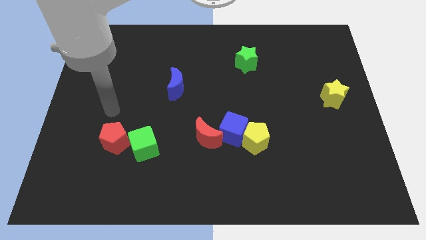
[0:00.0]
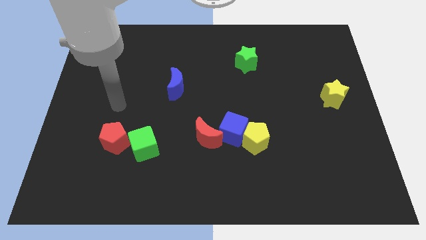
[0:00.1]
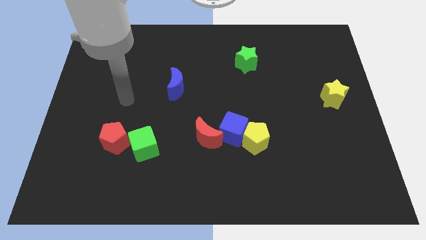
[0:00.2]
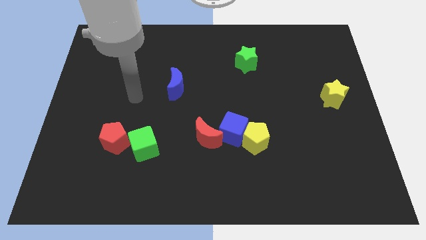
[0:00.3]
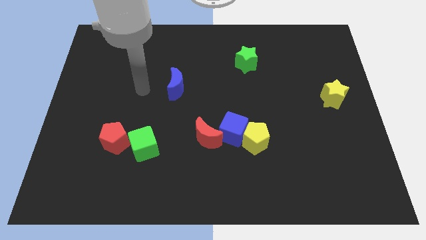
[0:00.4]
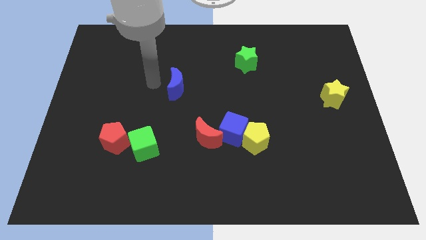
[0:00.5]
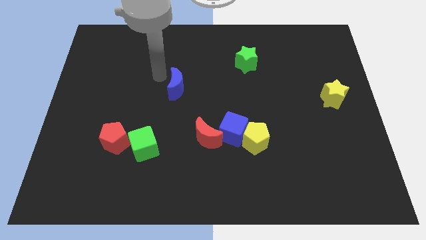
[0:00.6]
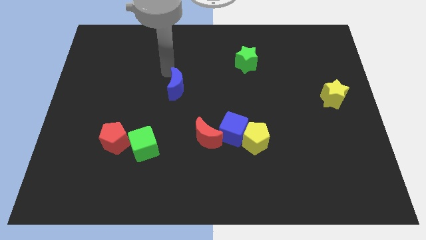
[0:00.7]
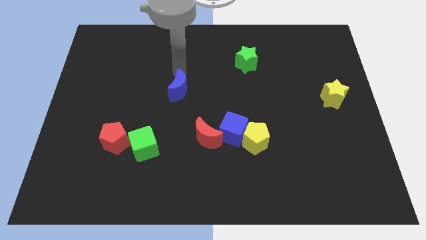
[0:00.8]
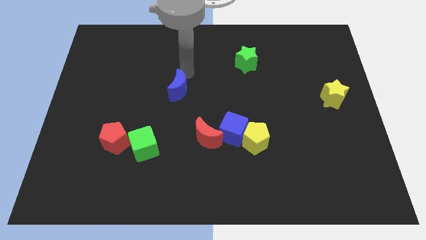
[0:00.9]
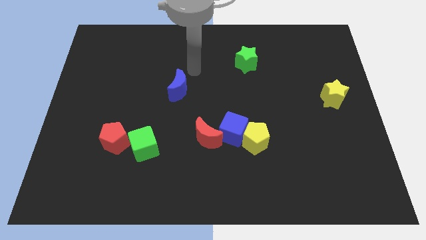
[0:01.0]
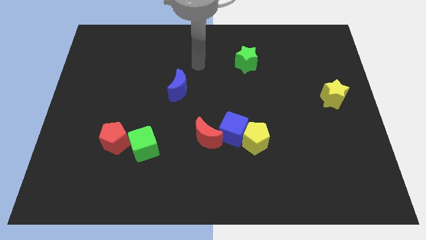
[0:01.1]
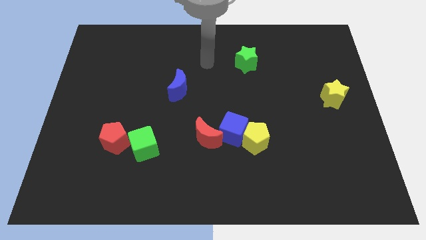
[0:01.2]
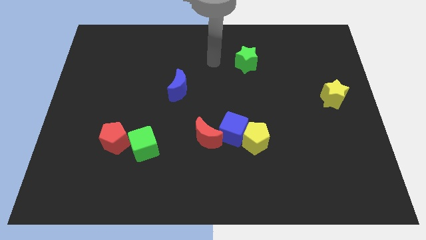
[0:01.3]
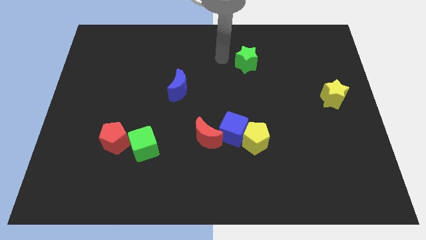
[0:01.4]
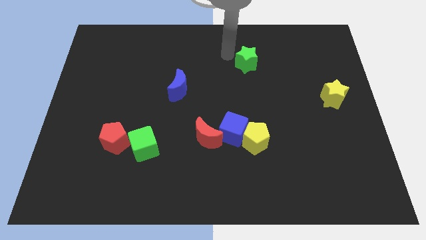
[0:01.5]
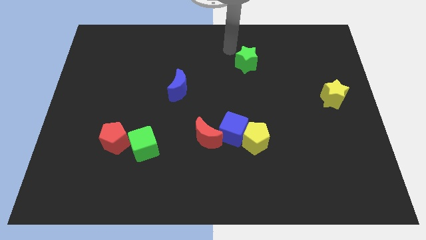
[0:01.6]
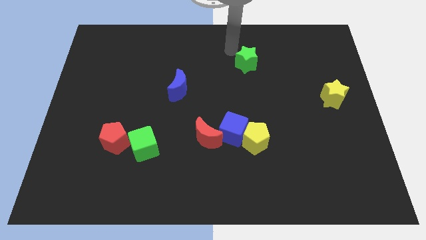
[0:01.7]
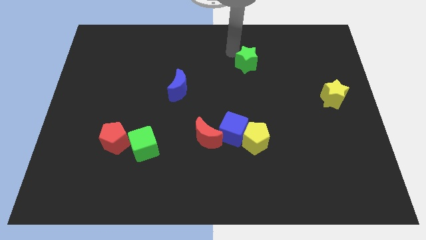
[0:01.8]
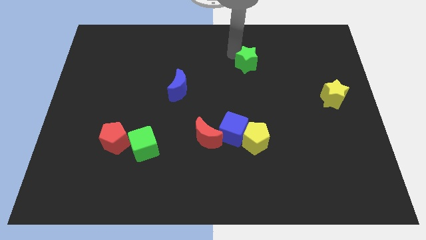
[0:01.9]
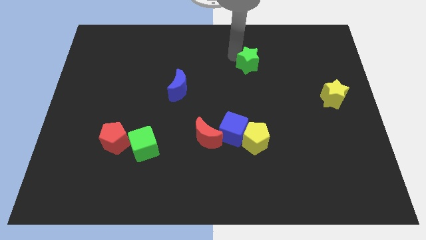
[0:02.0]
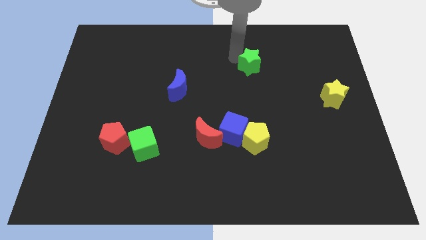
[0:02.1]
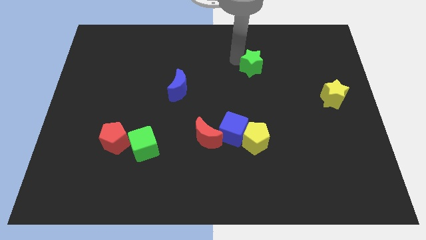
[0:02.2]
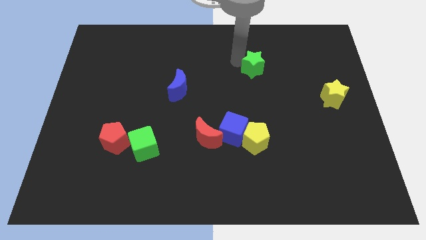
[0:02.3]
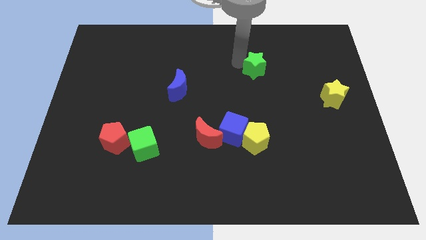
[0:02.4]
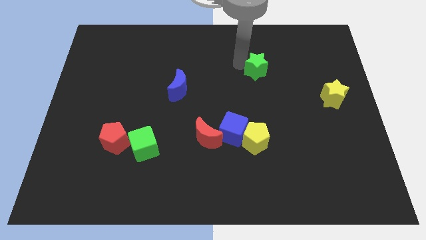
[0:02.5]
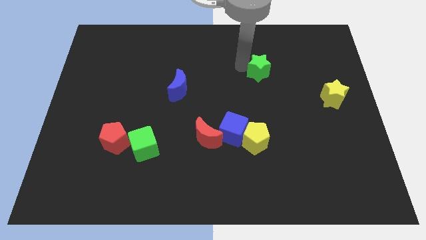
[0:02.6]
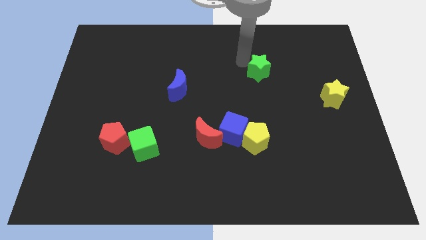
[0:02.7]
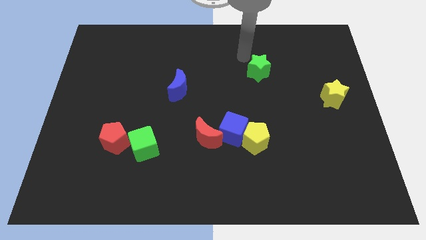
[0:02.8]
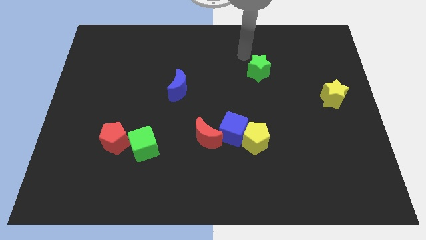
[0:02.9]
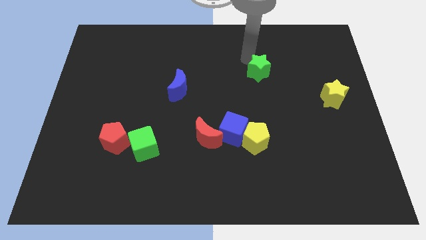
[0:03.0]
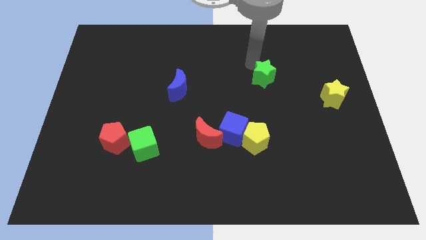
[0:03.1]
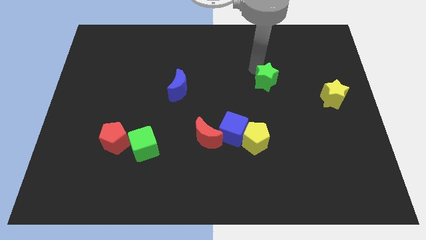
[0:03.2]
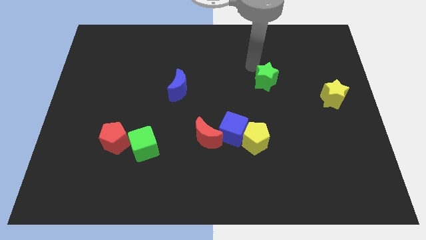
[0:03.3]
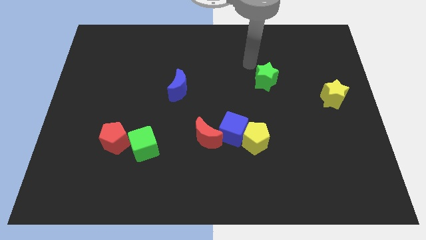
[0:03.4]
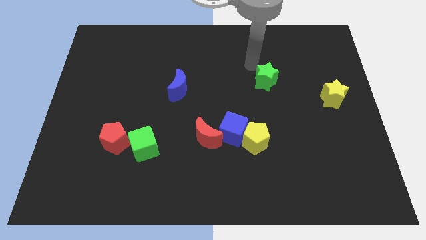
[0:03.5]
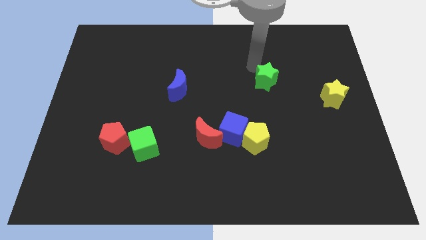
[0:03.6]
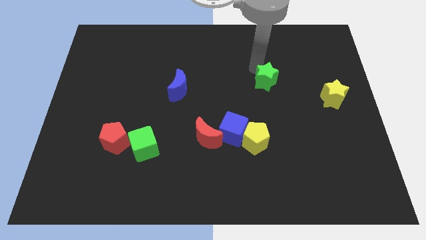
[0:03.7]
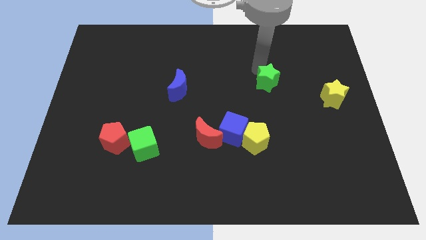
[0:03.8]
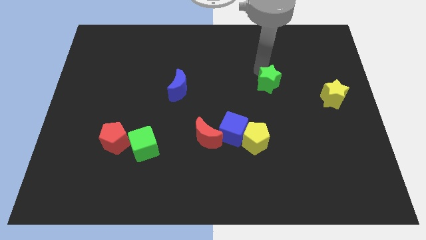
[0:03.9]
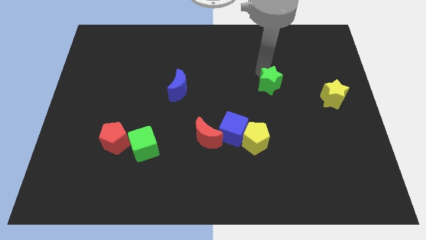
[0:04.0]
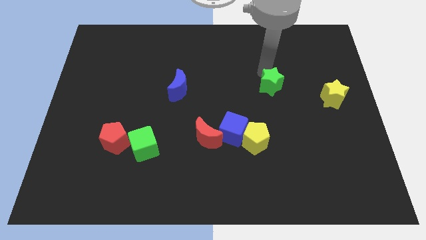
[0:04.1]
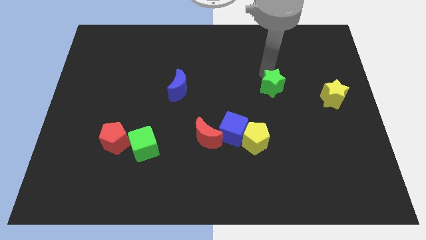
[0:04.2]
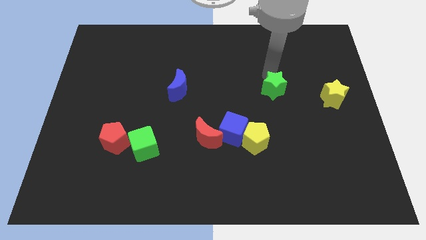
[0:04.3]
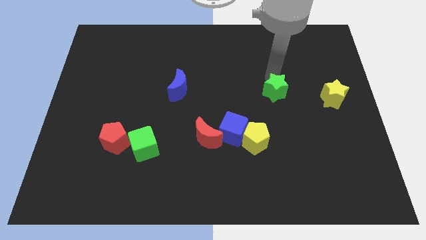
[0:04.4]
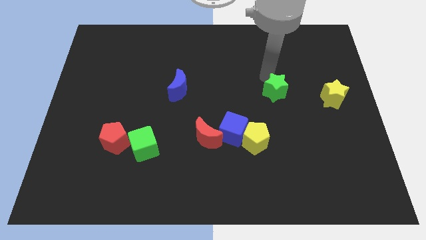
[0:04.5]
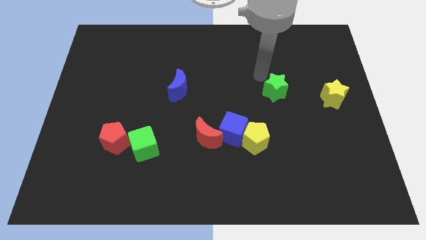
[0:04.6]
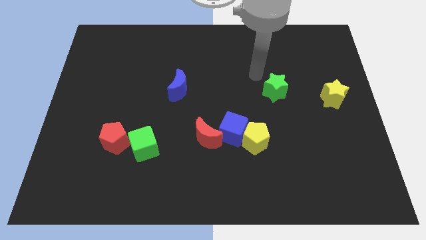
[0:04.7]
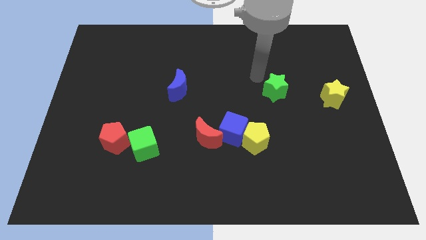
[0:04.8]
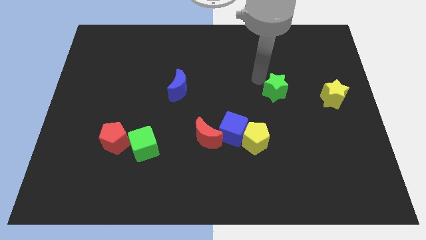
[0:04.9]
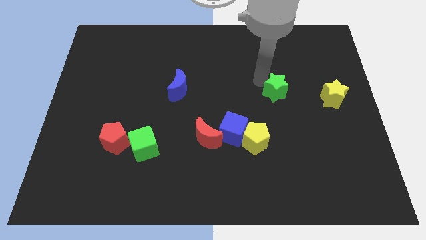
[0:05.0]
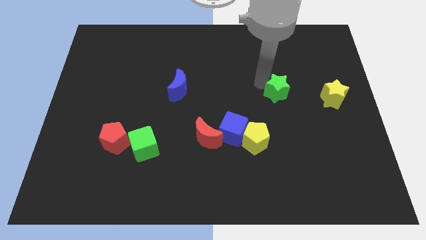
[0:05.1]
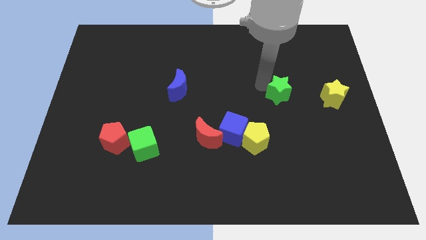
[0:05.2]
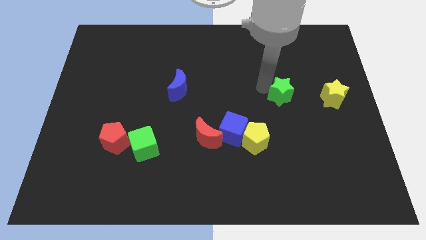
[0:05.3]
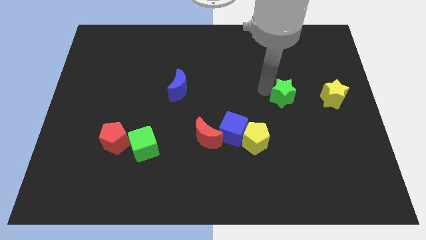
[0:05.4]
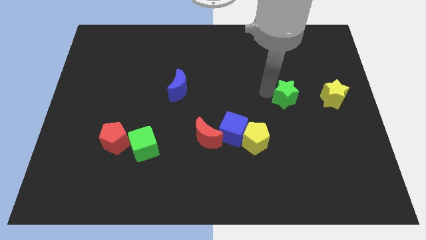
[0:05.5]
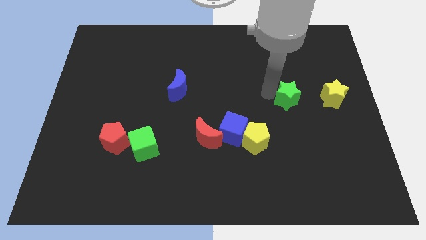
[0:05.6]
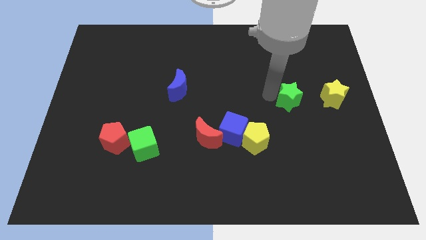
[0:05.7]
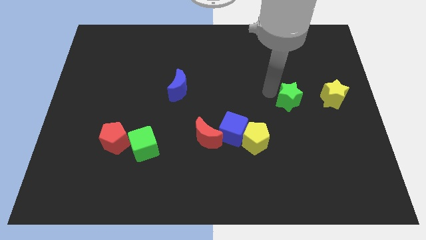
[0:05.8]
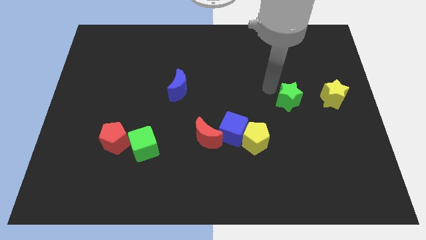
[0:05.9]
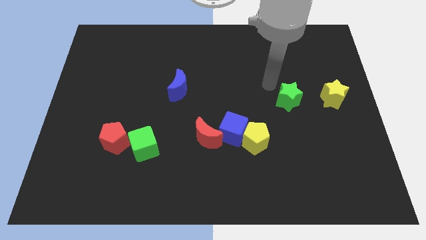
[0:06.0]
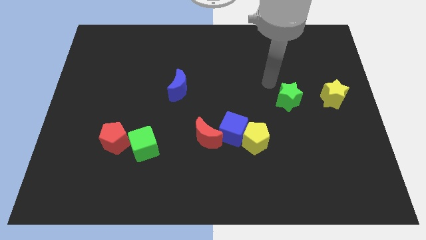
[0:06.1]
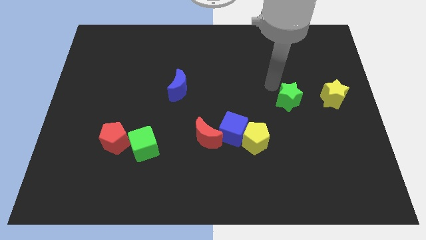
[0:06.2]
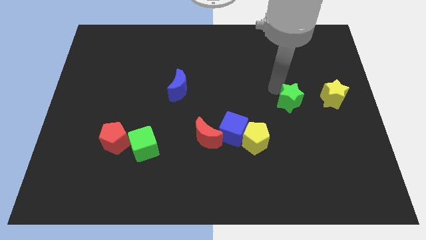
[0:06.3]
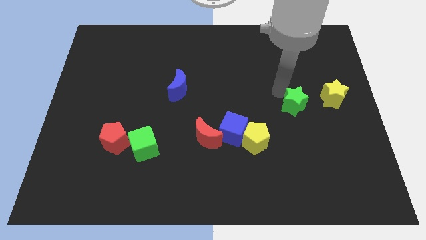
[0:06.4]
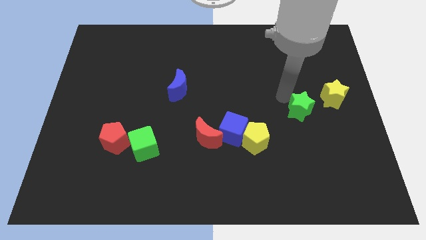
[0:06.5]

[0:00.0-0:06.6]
put the green star to the bottom left of the yellow star

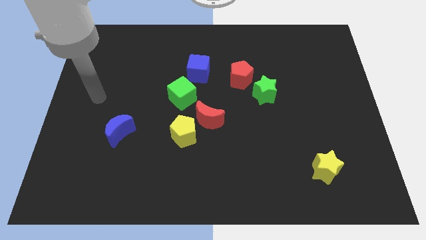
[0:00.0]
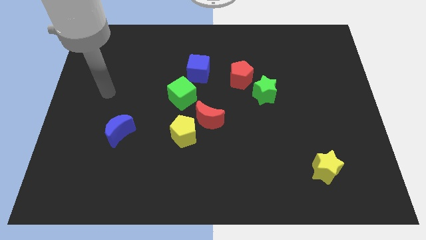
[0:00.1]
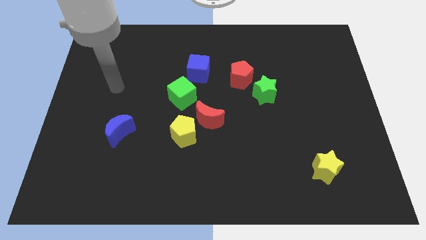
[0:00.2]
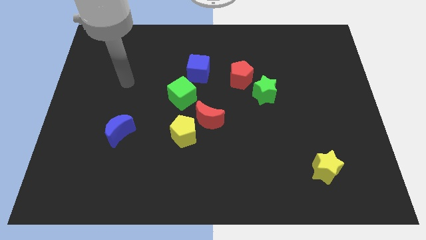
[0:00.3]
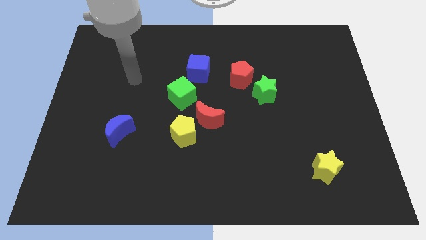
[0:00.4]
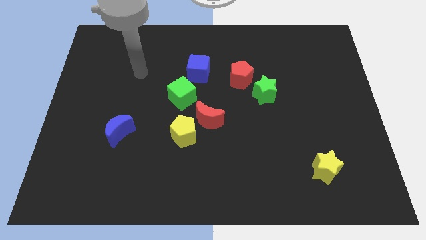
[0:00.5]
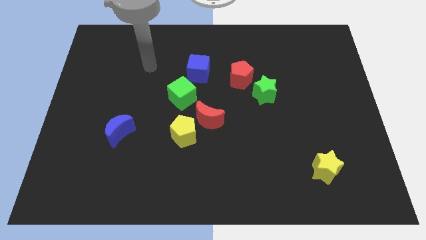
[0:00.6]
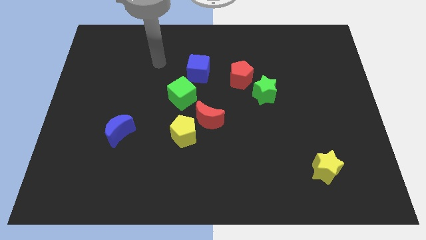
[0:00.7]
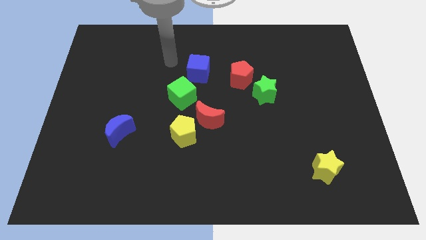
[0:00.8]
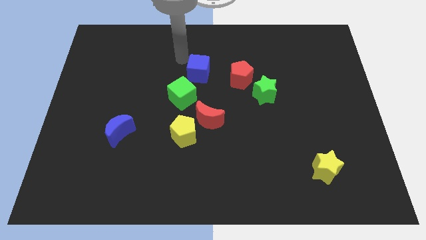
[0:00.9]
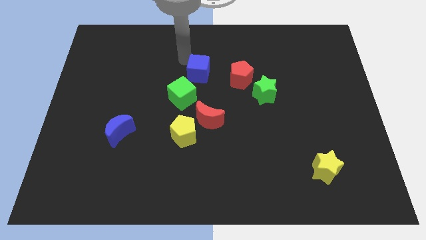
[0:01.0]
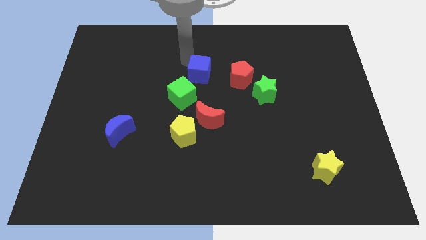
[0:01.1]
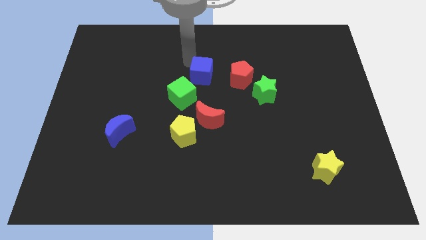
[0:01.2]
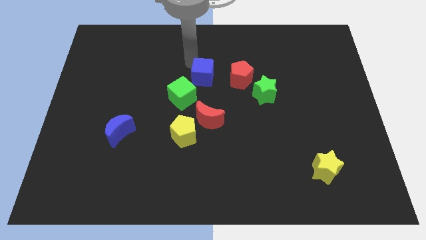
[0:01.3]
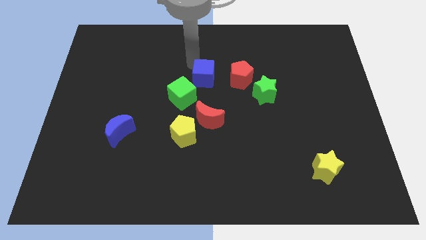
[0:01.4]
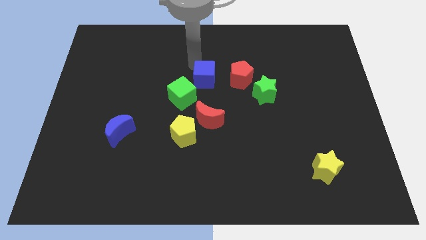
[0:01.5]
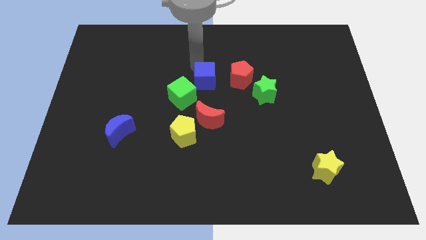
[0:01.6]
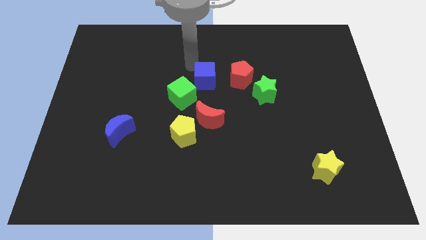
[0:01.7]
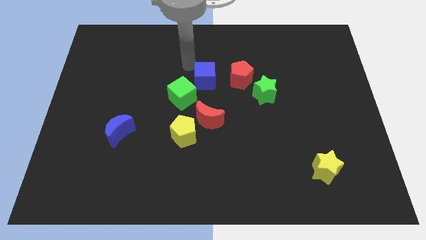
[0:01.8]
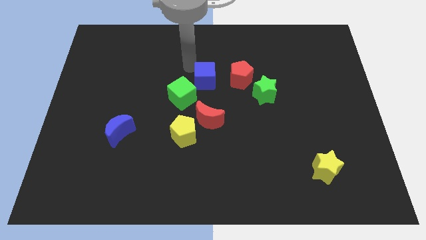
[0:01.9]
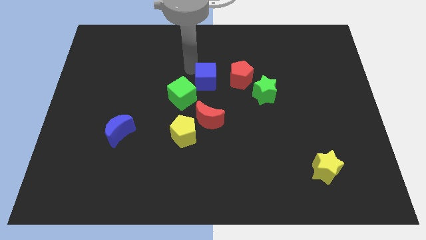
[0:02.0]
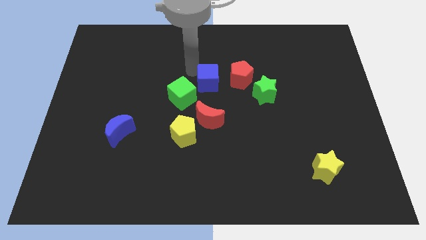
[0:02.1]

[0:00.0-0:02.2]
slide the blue cube left of the green star
